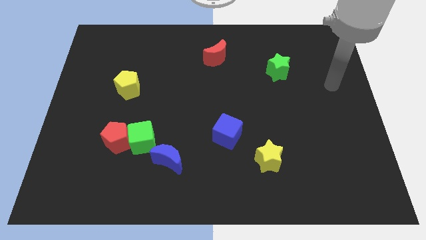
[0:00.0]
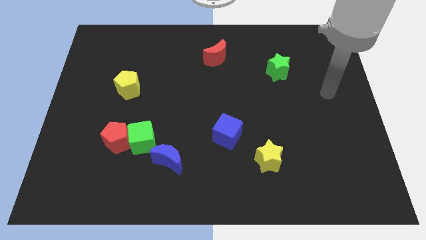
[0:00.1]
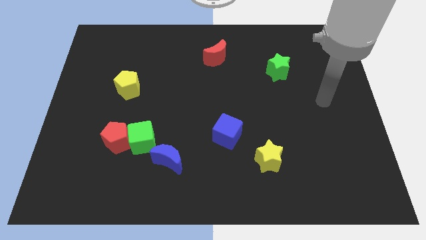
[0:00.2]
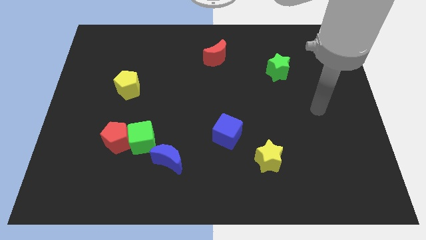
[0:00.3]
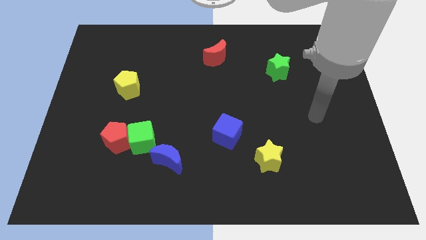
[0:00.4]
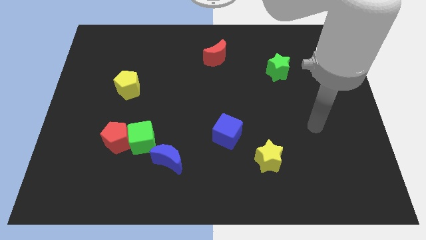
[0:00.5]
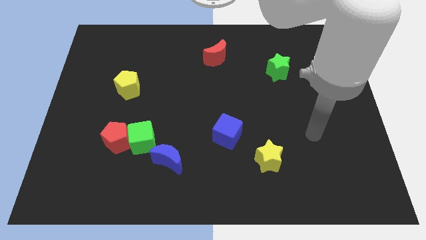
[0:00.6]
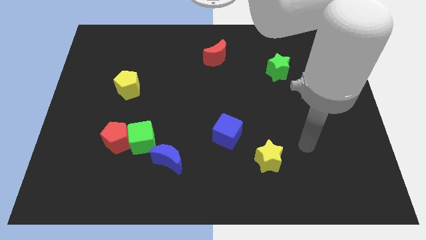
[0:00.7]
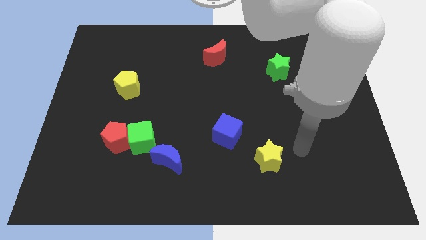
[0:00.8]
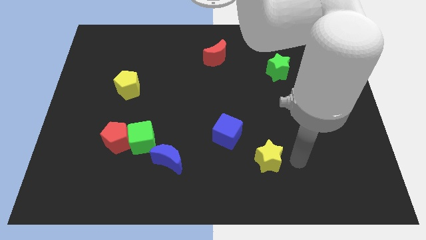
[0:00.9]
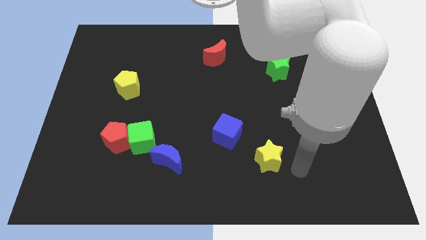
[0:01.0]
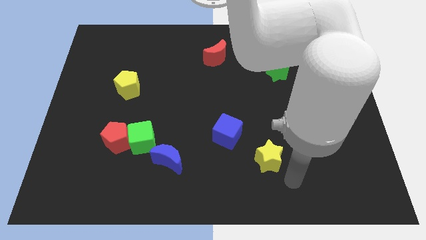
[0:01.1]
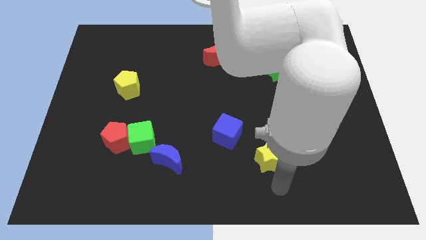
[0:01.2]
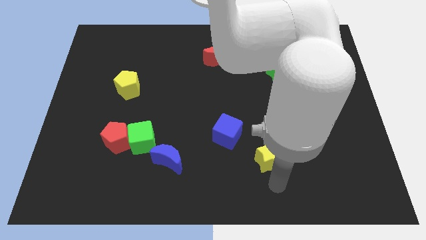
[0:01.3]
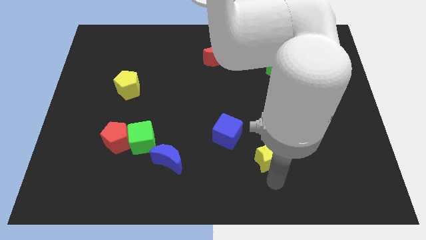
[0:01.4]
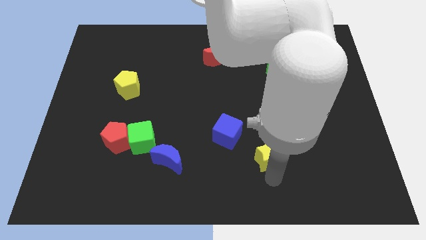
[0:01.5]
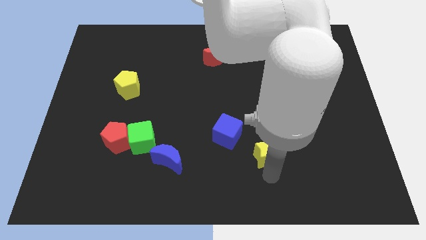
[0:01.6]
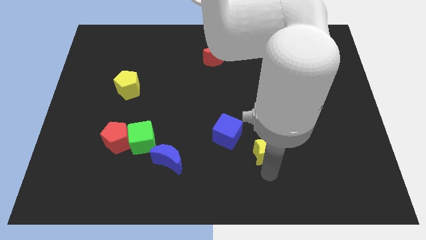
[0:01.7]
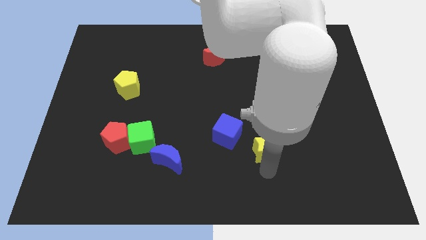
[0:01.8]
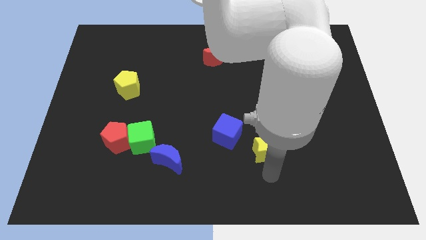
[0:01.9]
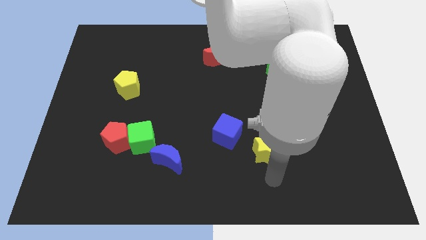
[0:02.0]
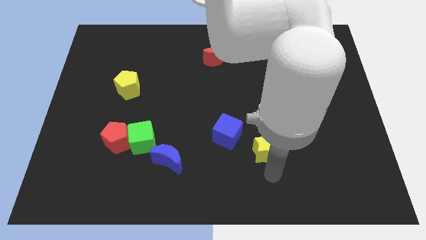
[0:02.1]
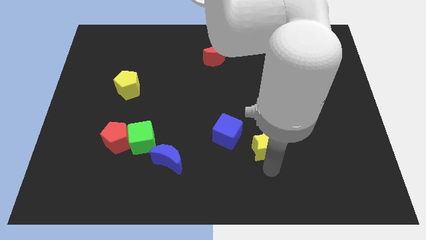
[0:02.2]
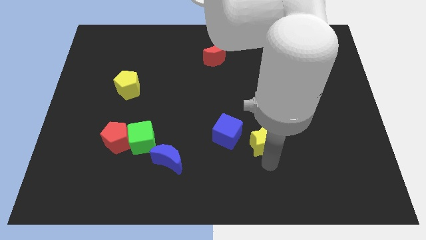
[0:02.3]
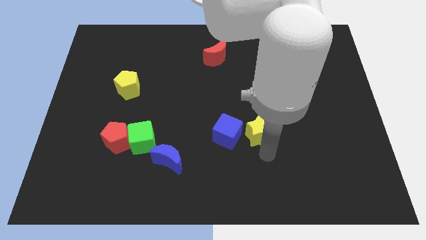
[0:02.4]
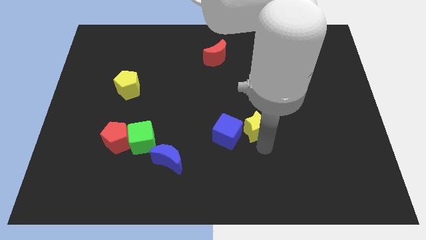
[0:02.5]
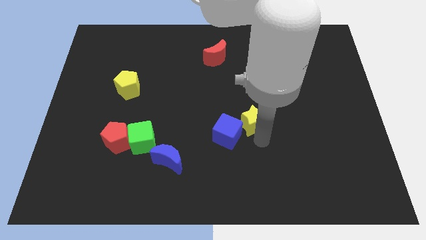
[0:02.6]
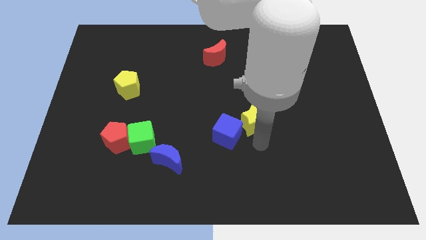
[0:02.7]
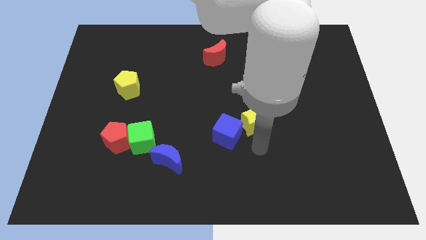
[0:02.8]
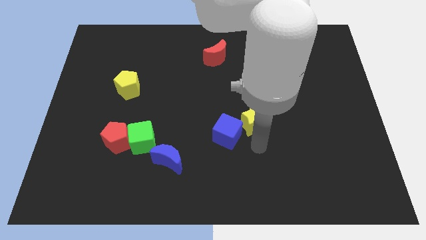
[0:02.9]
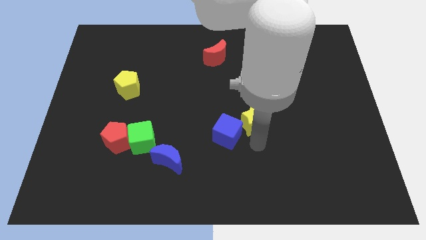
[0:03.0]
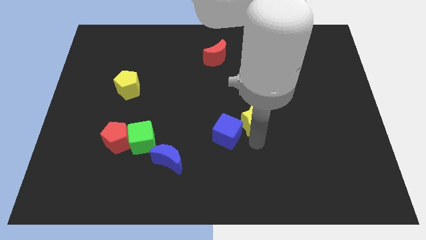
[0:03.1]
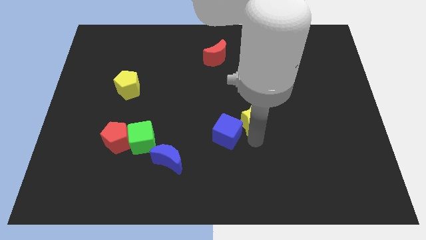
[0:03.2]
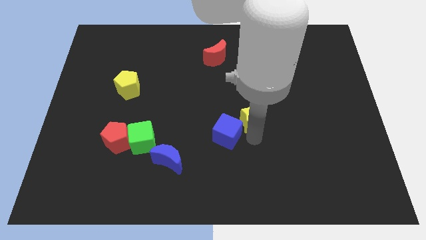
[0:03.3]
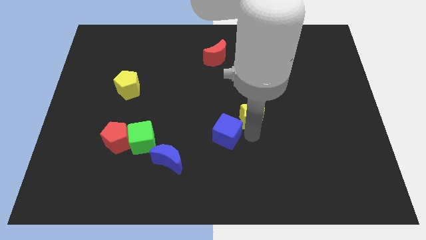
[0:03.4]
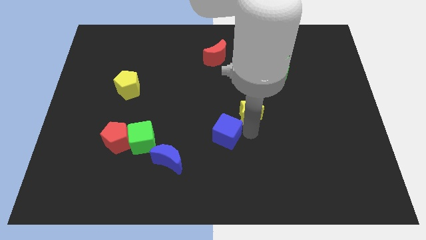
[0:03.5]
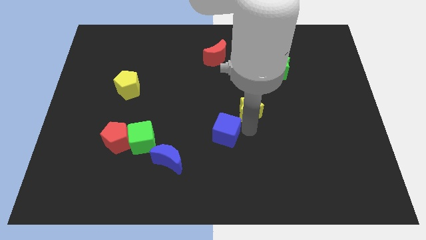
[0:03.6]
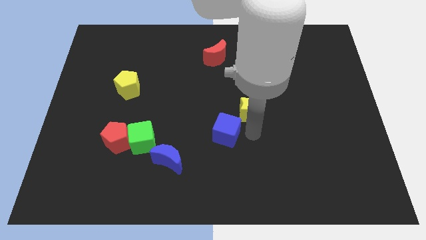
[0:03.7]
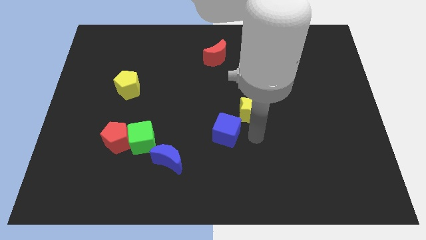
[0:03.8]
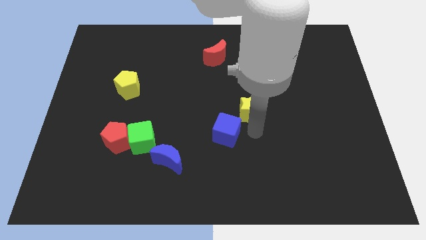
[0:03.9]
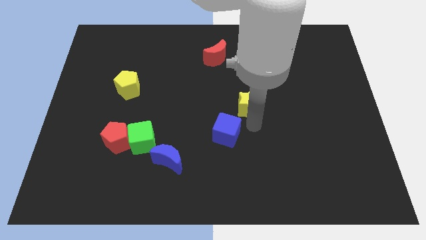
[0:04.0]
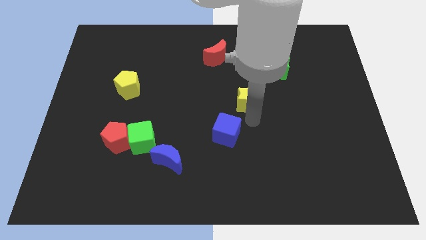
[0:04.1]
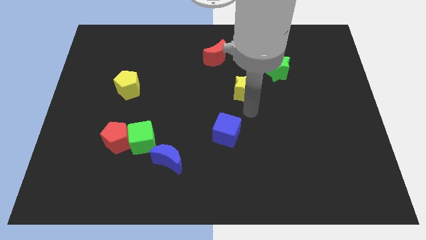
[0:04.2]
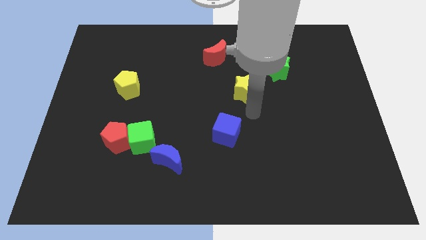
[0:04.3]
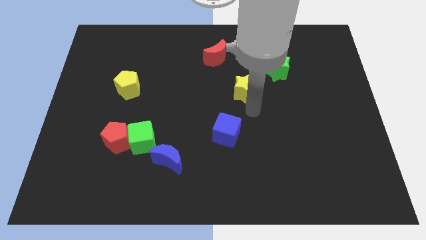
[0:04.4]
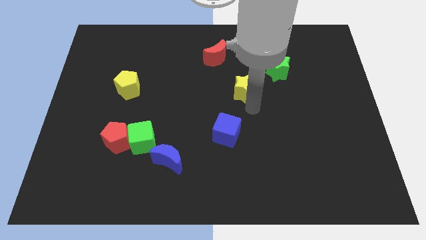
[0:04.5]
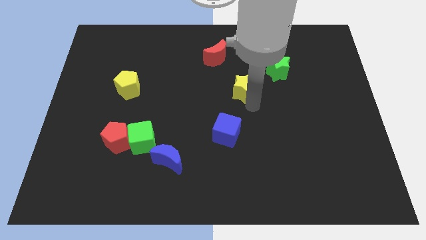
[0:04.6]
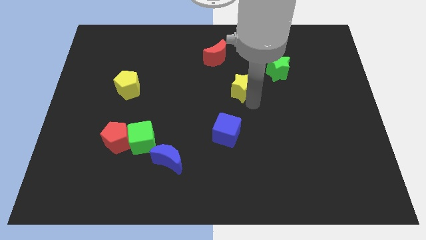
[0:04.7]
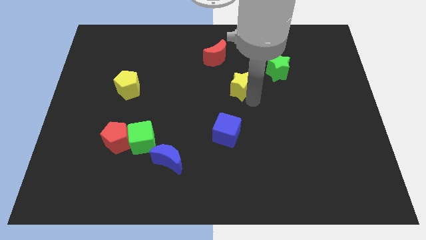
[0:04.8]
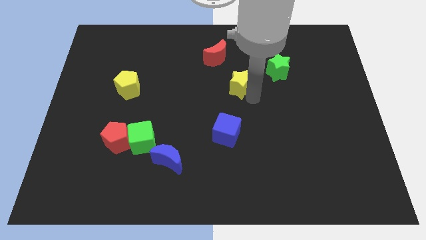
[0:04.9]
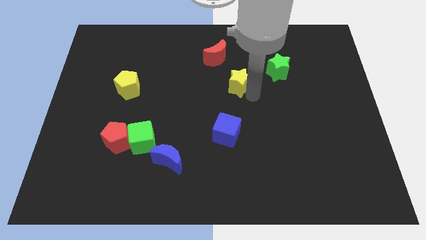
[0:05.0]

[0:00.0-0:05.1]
put the yellow star left of the green star

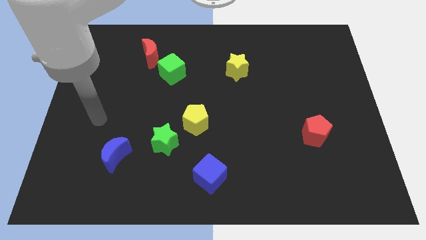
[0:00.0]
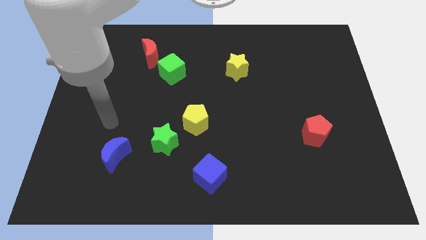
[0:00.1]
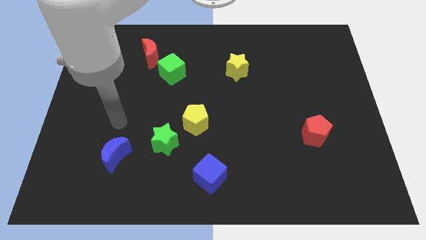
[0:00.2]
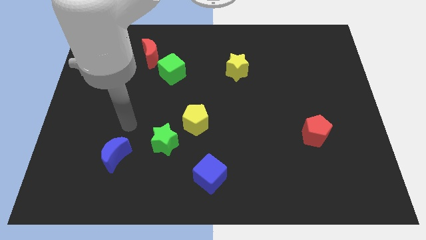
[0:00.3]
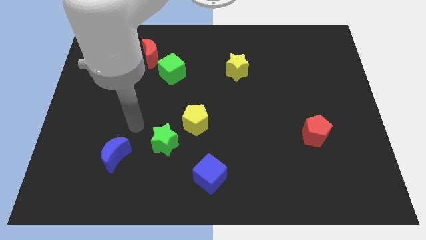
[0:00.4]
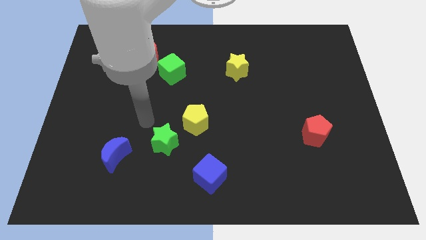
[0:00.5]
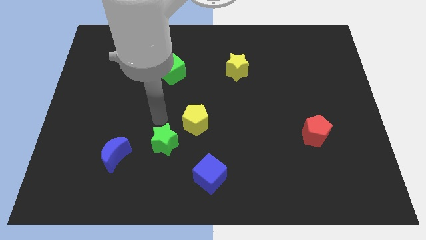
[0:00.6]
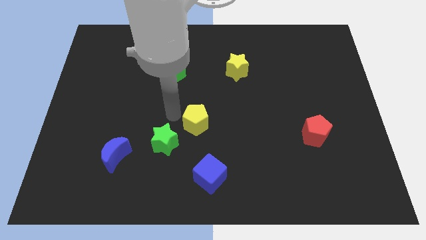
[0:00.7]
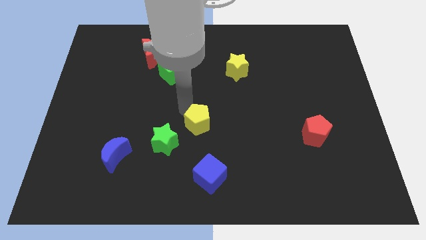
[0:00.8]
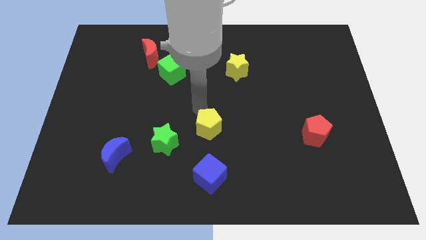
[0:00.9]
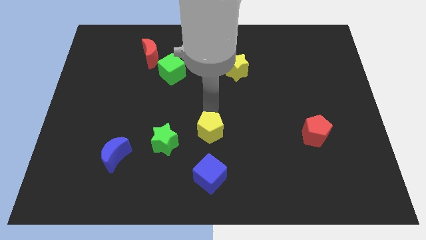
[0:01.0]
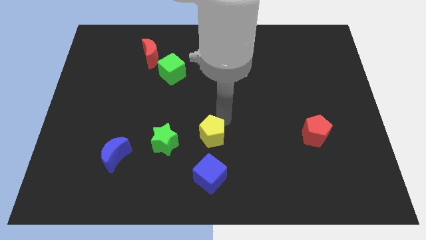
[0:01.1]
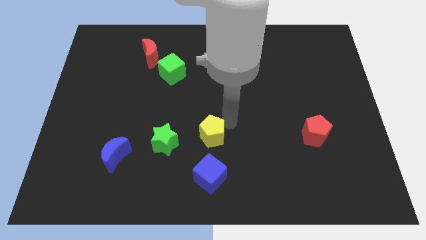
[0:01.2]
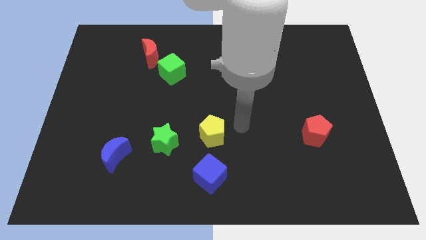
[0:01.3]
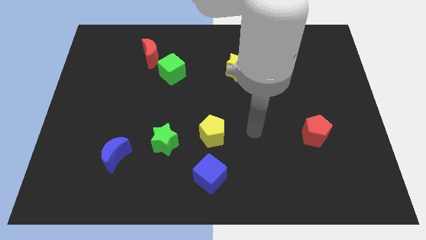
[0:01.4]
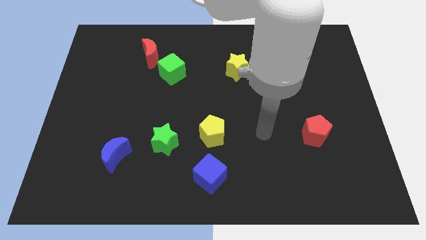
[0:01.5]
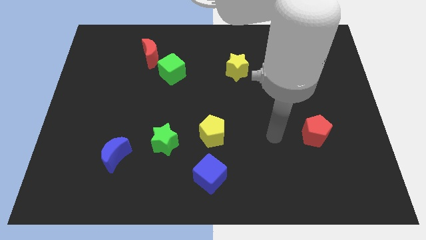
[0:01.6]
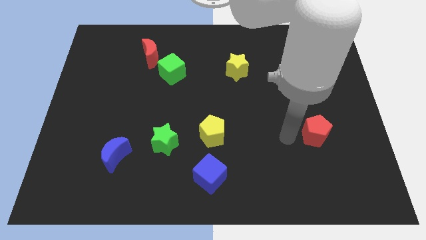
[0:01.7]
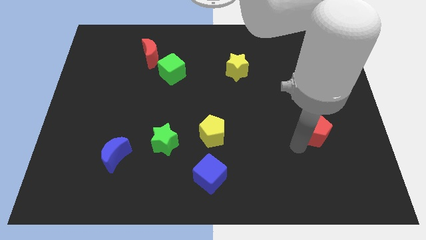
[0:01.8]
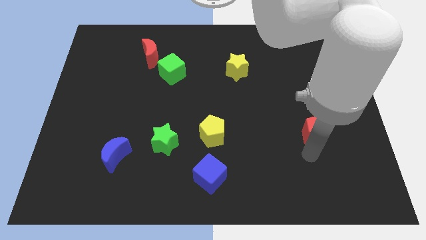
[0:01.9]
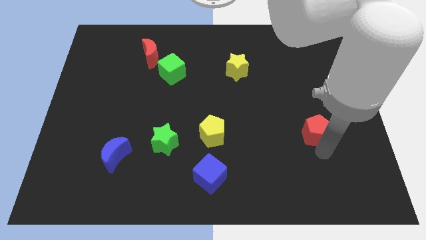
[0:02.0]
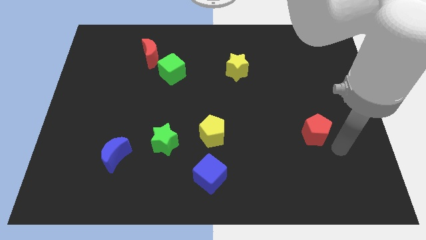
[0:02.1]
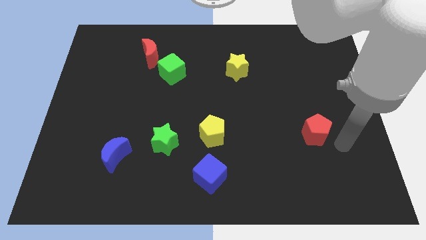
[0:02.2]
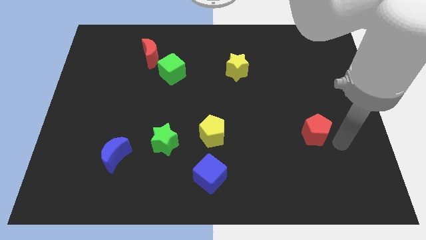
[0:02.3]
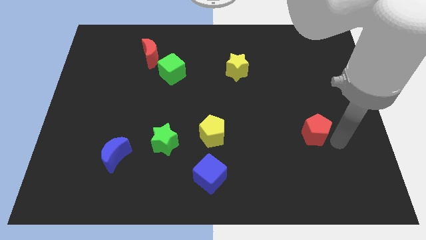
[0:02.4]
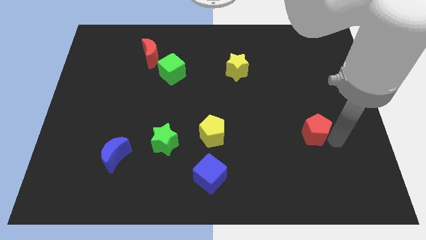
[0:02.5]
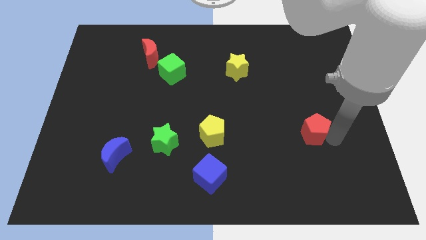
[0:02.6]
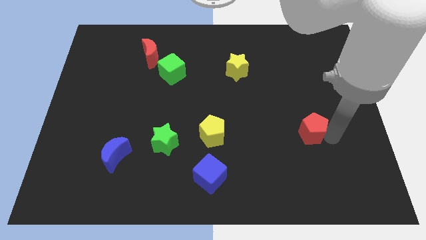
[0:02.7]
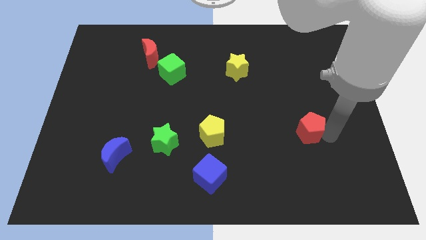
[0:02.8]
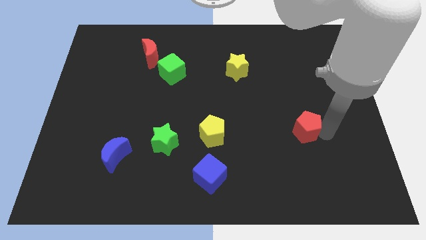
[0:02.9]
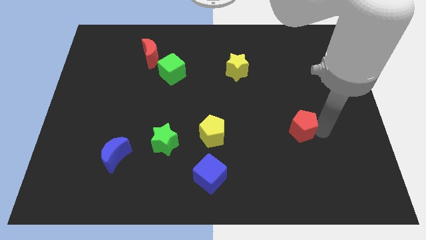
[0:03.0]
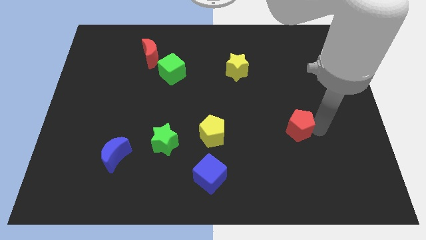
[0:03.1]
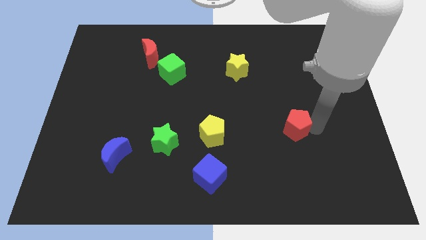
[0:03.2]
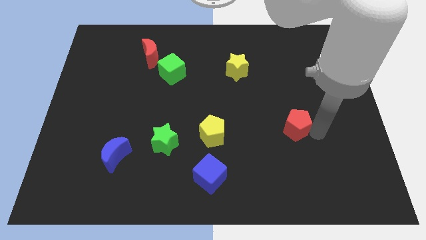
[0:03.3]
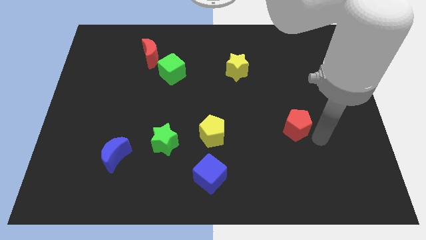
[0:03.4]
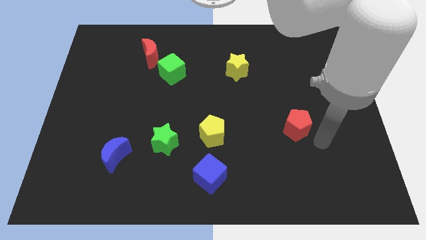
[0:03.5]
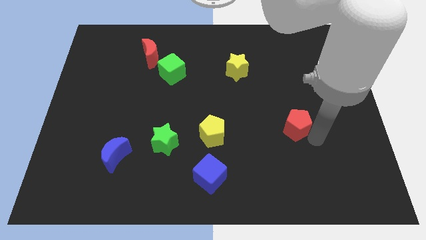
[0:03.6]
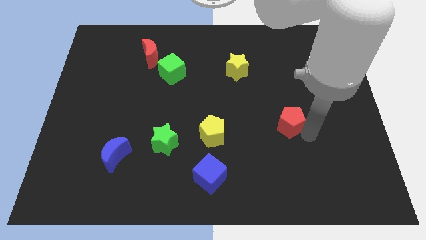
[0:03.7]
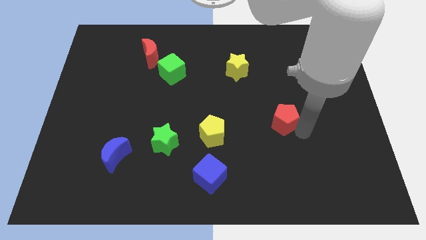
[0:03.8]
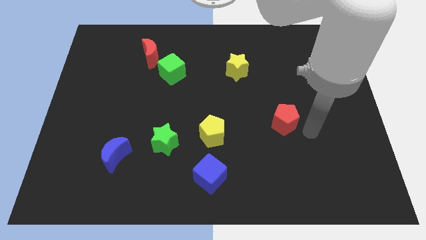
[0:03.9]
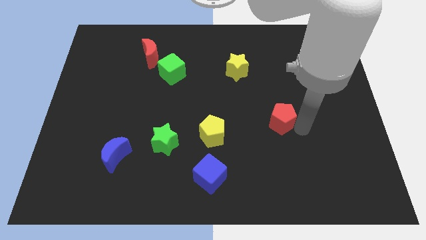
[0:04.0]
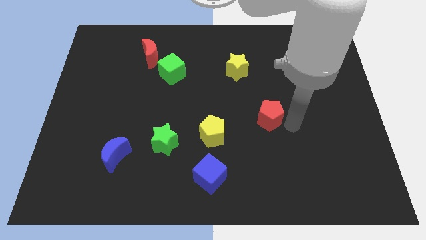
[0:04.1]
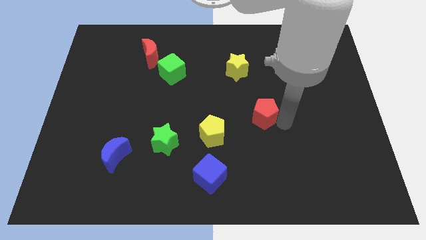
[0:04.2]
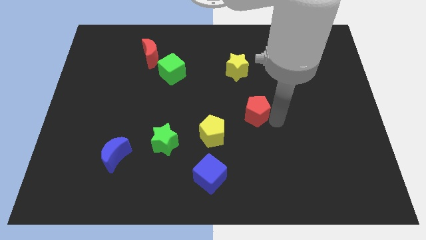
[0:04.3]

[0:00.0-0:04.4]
push the red pentagon diagonally up and to the right of the yellow pentagon
